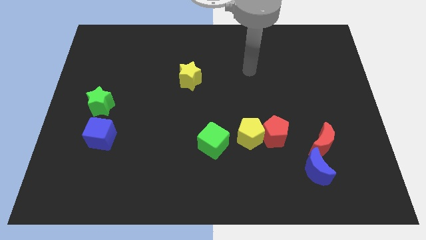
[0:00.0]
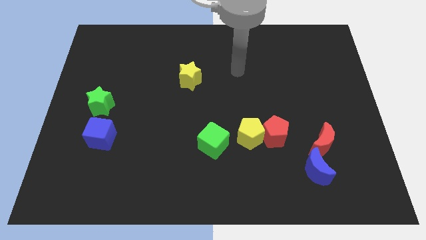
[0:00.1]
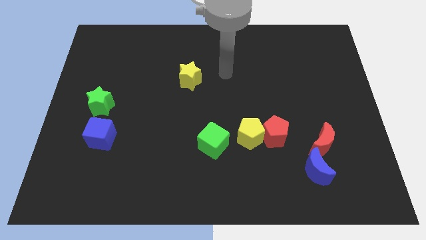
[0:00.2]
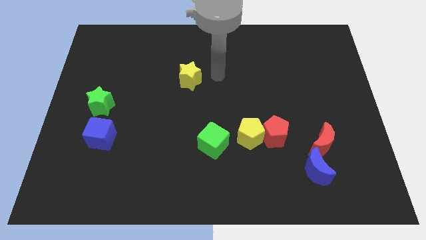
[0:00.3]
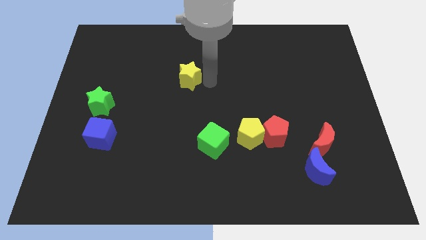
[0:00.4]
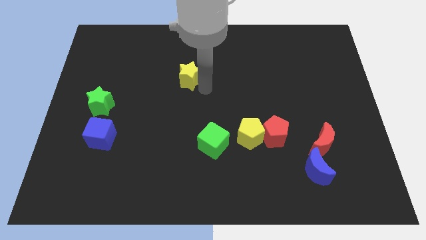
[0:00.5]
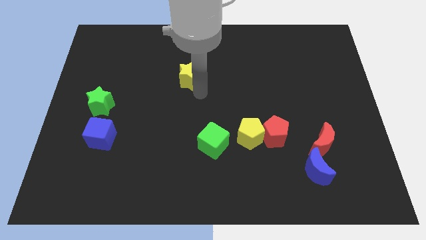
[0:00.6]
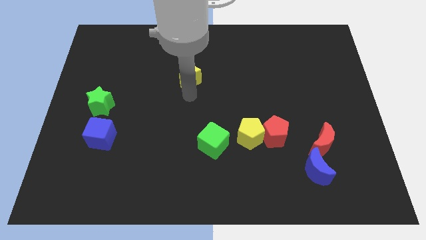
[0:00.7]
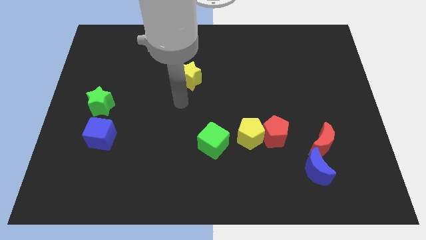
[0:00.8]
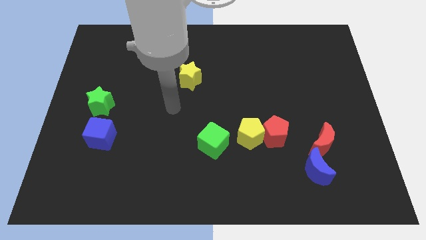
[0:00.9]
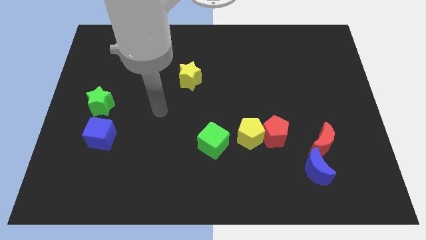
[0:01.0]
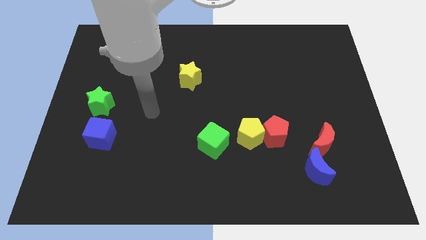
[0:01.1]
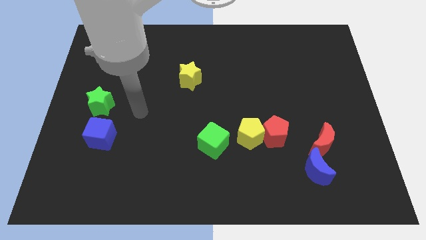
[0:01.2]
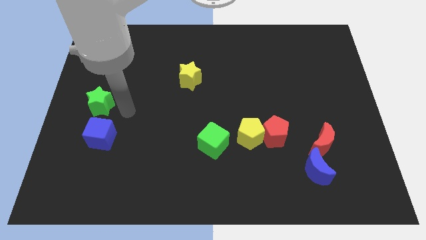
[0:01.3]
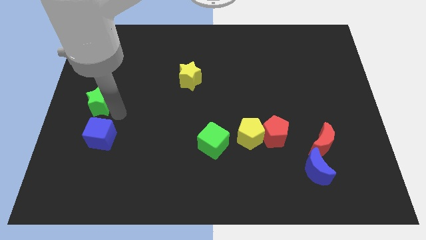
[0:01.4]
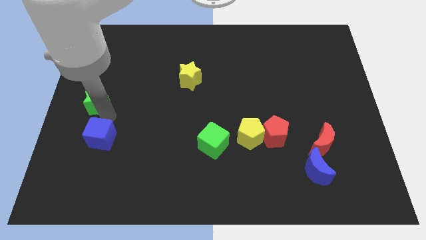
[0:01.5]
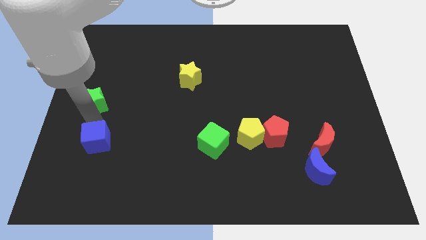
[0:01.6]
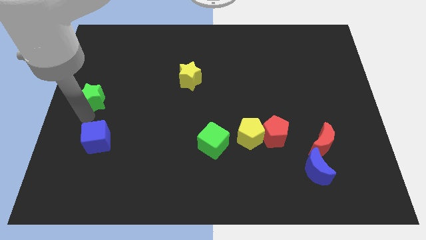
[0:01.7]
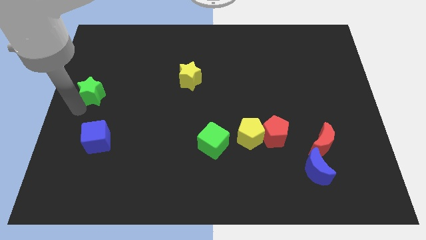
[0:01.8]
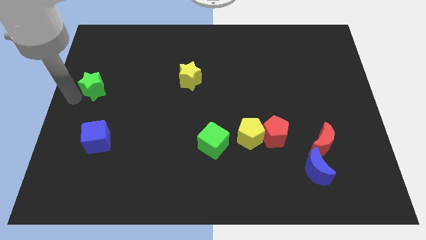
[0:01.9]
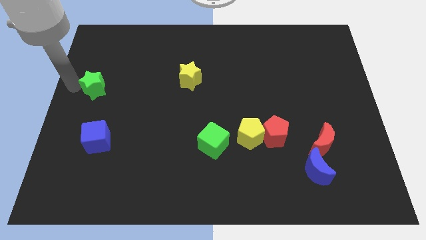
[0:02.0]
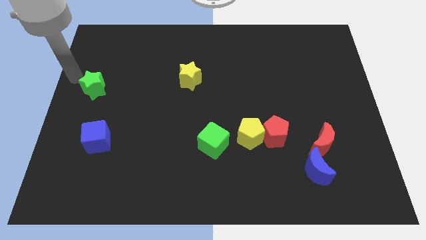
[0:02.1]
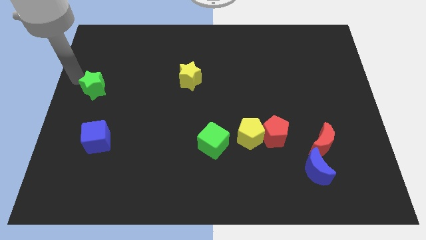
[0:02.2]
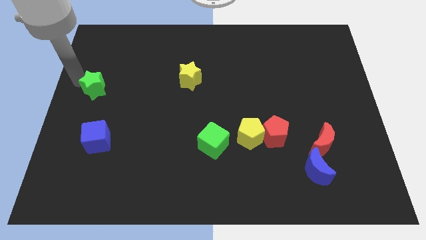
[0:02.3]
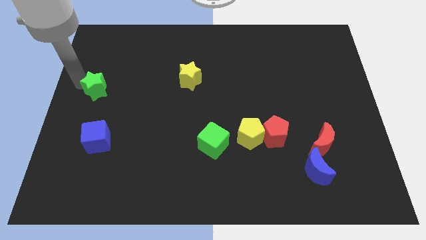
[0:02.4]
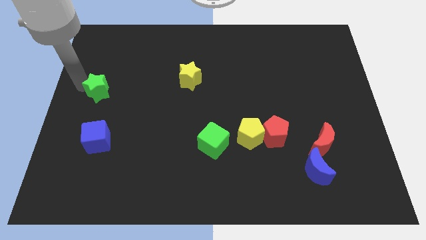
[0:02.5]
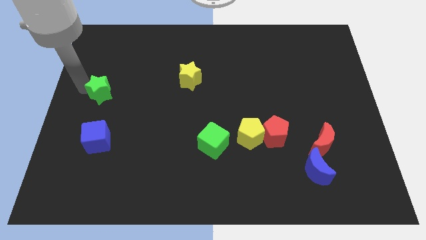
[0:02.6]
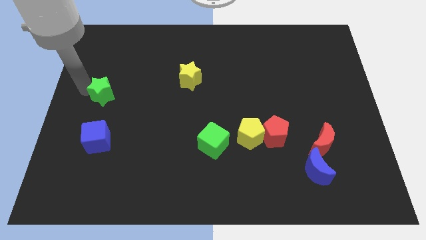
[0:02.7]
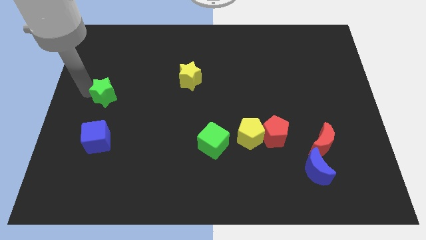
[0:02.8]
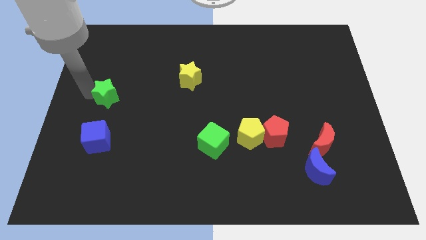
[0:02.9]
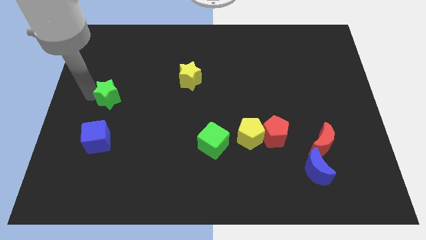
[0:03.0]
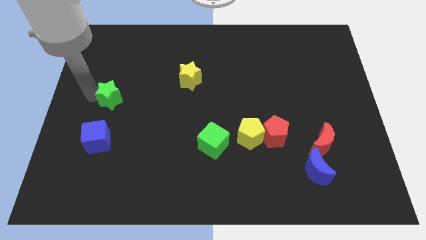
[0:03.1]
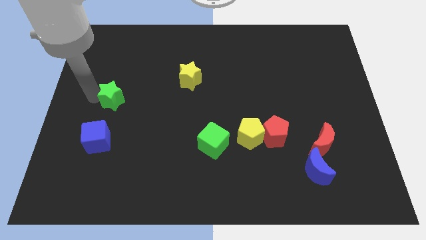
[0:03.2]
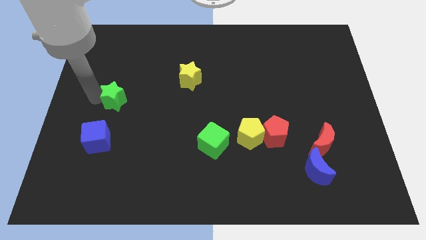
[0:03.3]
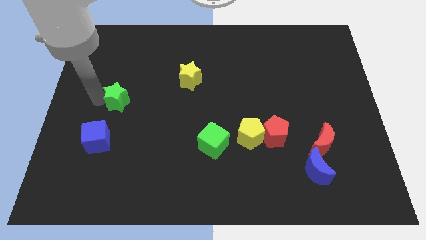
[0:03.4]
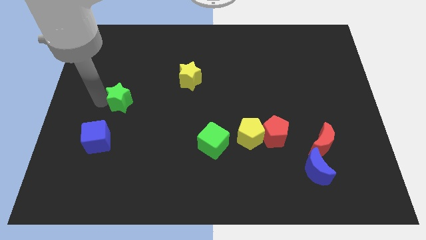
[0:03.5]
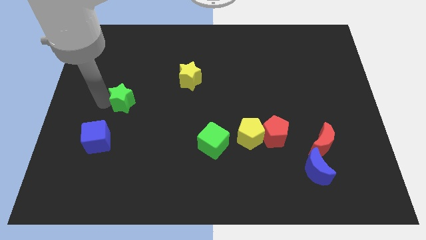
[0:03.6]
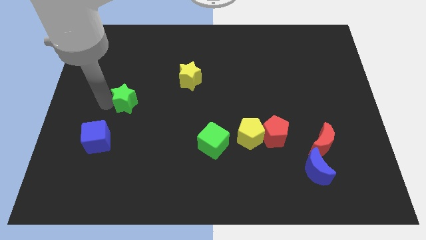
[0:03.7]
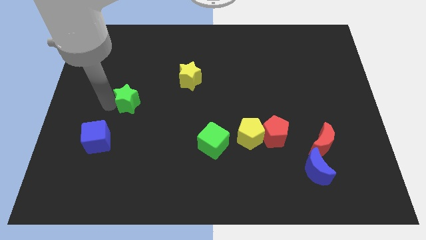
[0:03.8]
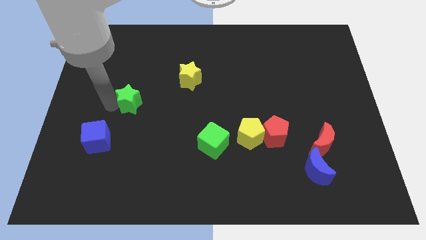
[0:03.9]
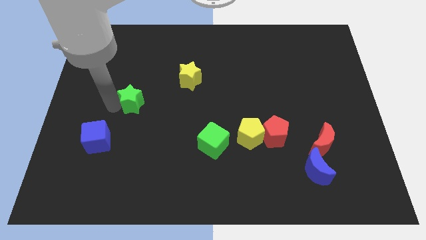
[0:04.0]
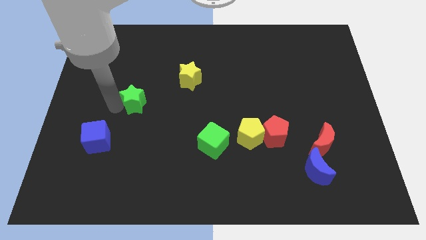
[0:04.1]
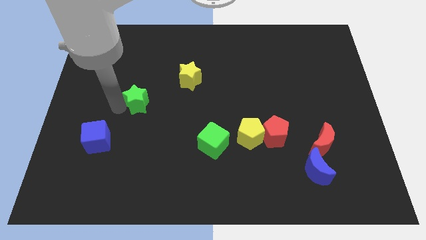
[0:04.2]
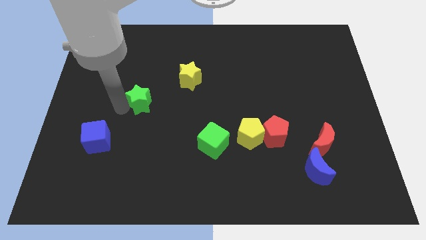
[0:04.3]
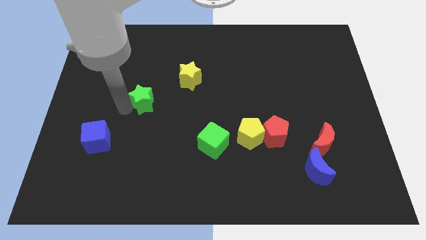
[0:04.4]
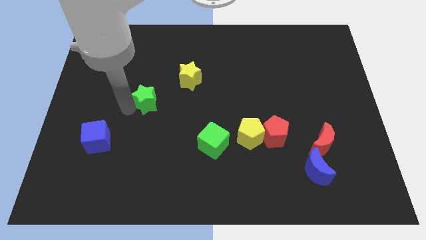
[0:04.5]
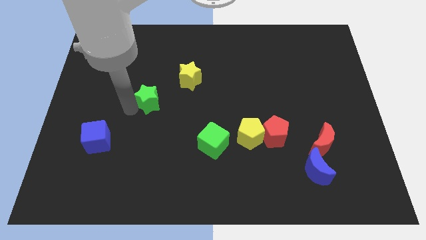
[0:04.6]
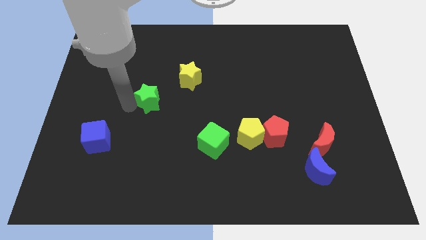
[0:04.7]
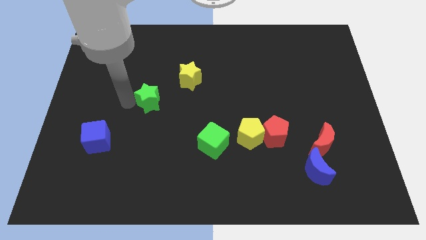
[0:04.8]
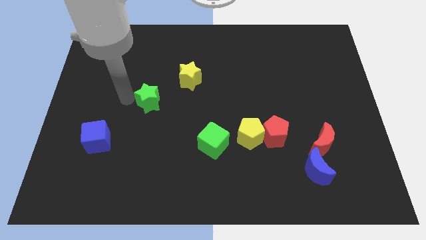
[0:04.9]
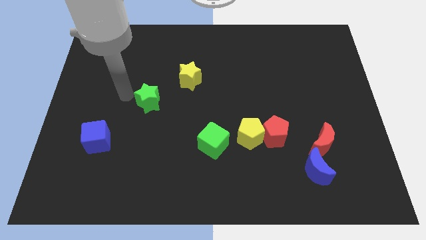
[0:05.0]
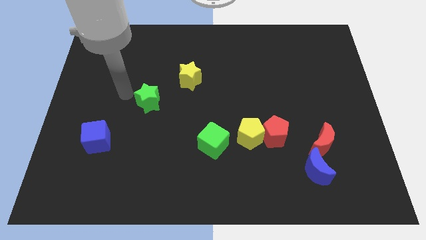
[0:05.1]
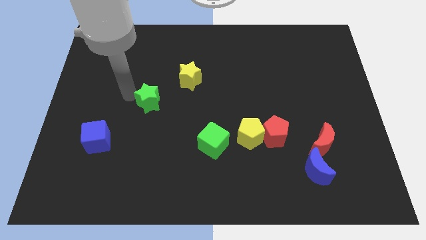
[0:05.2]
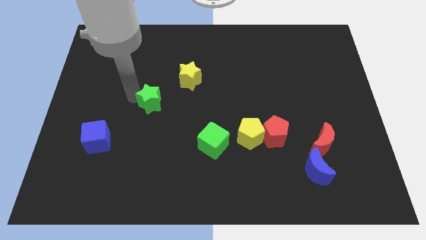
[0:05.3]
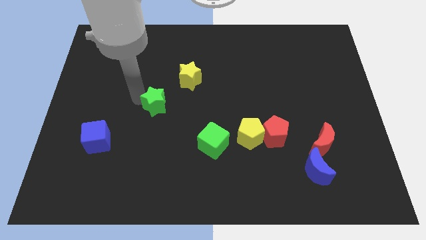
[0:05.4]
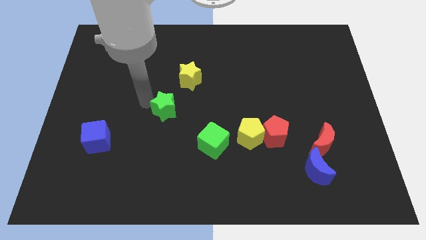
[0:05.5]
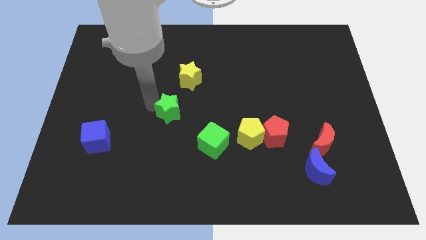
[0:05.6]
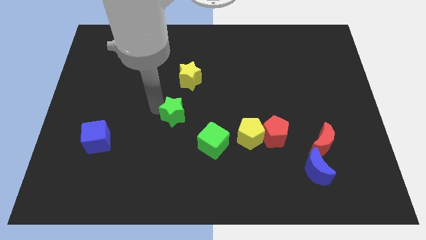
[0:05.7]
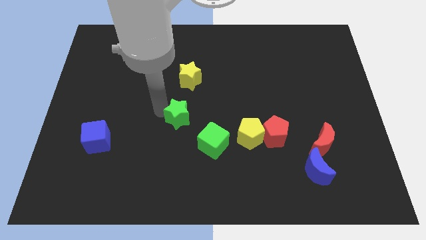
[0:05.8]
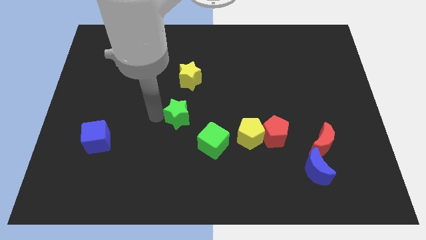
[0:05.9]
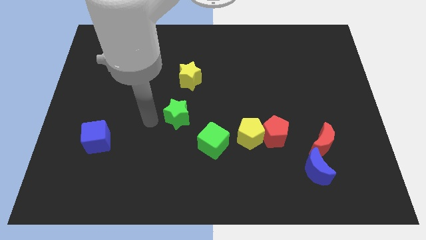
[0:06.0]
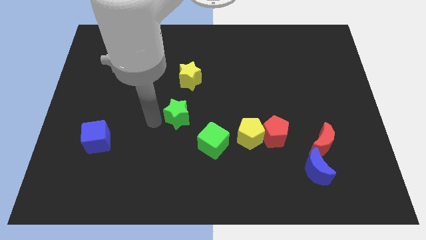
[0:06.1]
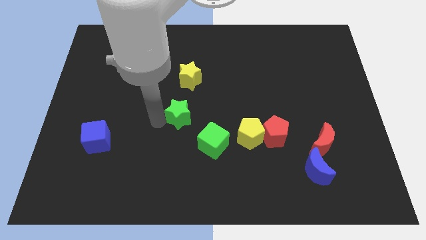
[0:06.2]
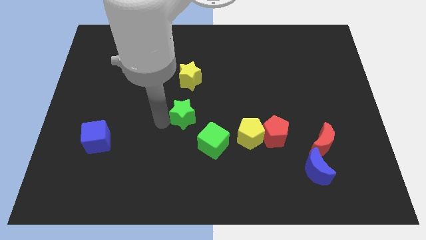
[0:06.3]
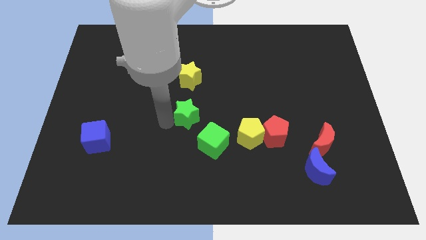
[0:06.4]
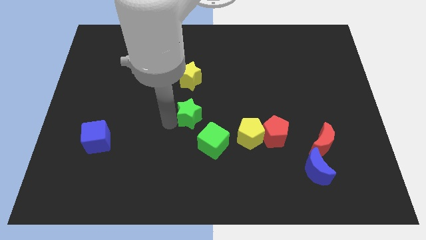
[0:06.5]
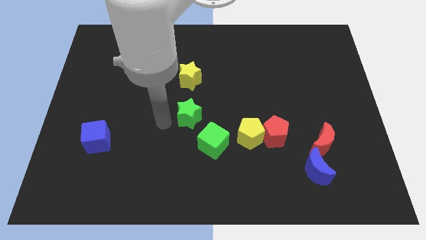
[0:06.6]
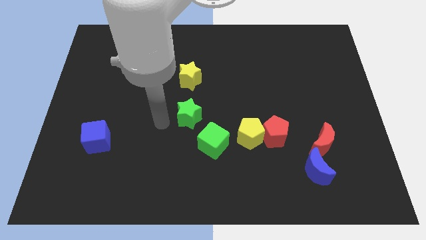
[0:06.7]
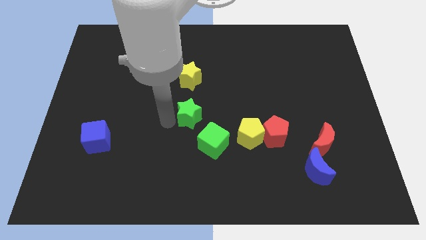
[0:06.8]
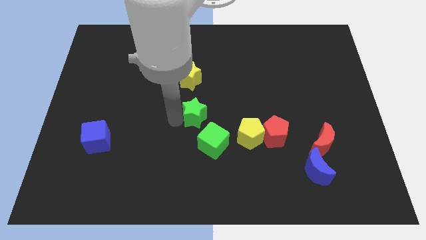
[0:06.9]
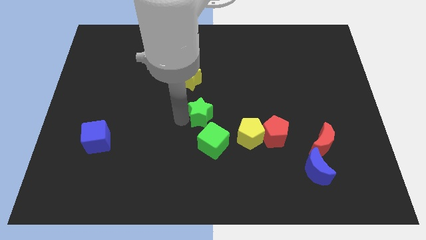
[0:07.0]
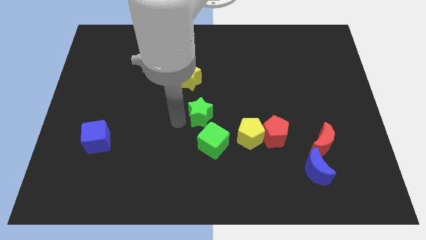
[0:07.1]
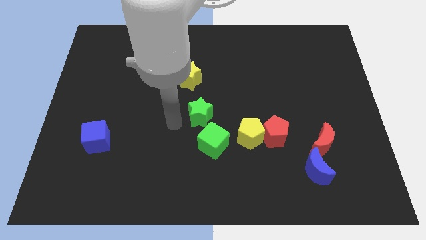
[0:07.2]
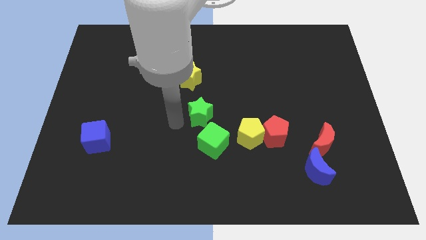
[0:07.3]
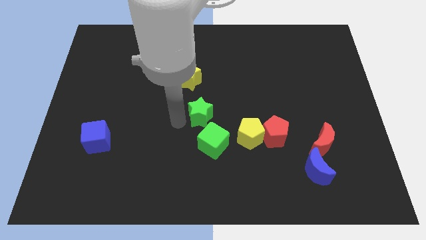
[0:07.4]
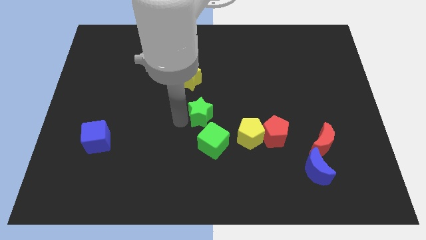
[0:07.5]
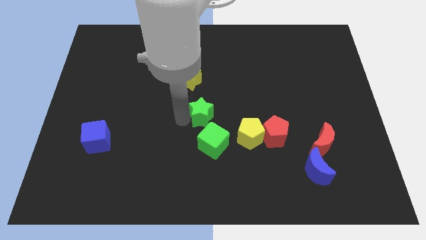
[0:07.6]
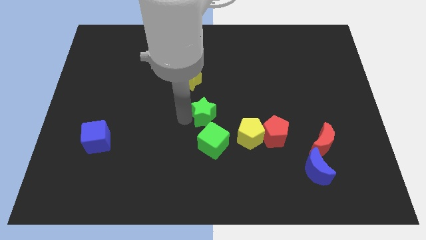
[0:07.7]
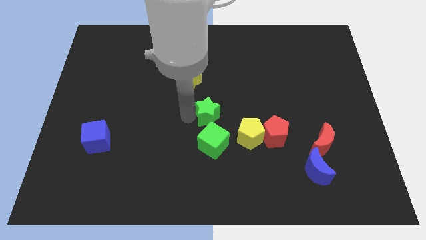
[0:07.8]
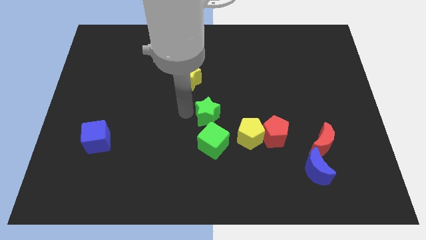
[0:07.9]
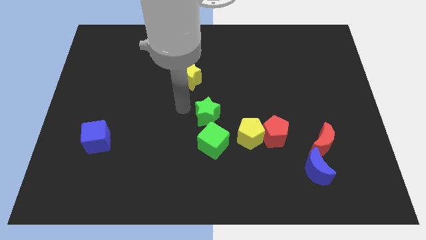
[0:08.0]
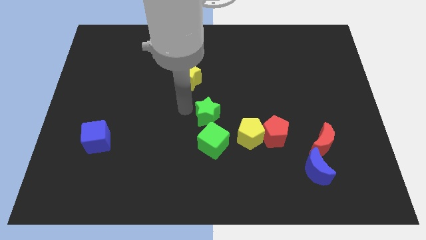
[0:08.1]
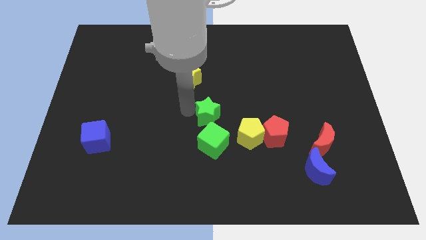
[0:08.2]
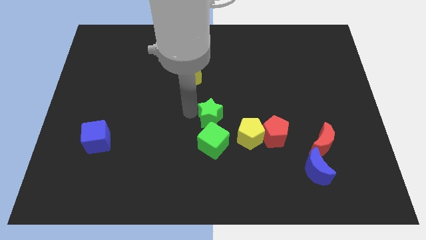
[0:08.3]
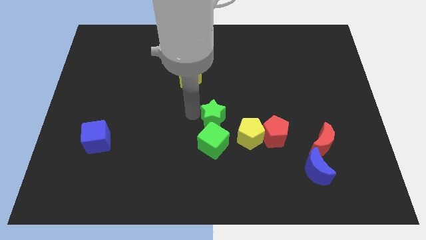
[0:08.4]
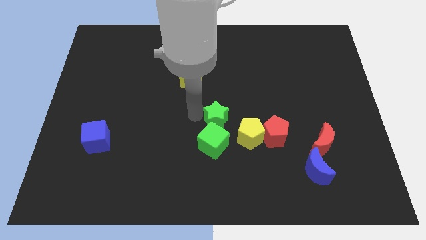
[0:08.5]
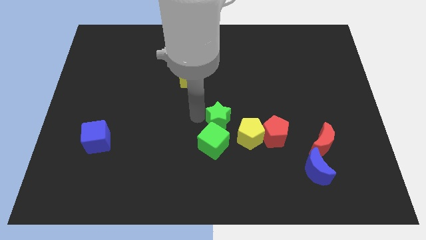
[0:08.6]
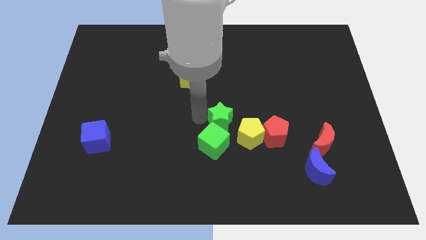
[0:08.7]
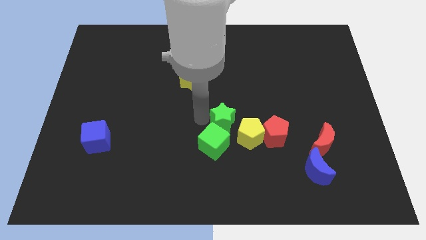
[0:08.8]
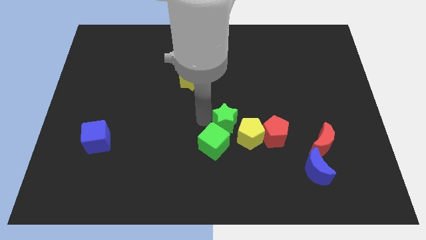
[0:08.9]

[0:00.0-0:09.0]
slide the green star close to the yellow pentagon
